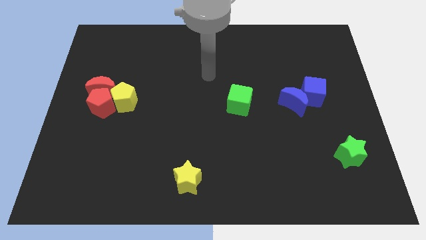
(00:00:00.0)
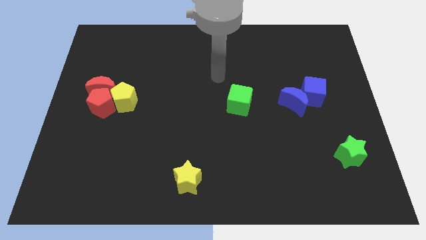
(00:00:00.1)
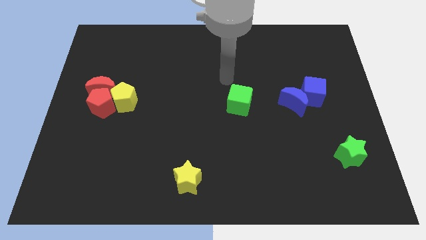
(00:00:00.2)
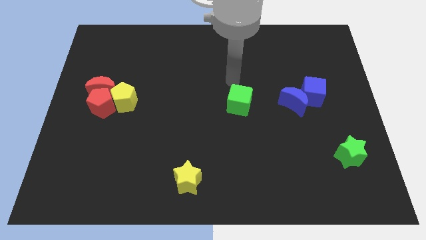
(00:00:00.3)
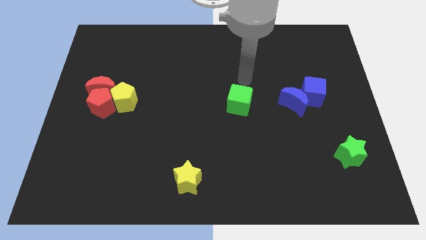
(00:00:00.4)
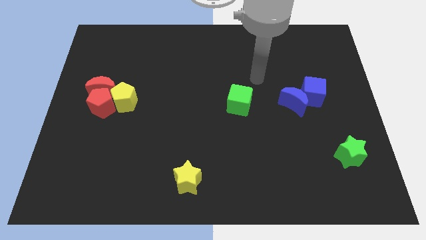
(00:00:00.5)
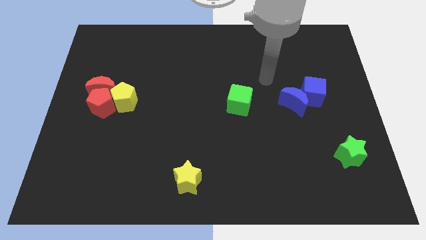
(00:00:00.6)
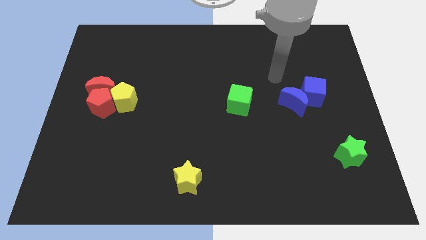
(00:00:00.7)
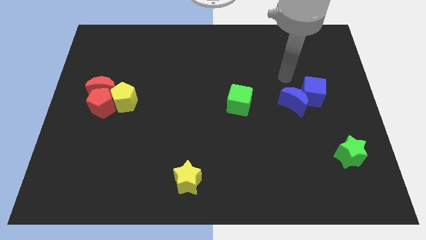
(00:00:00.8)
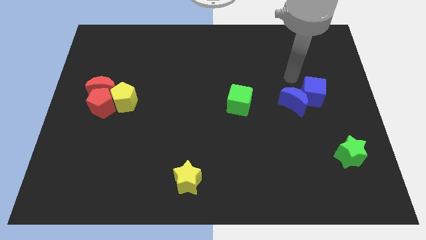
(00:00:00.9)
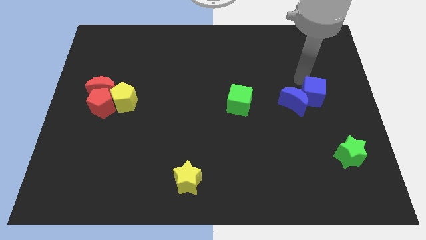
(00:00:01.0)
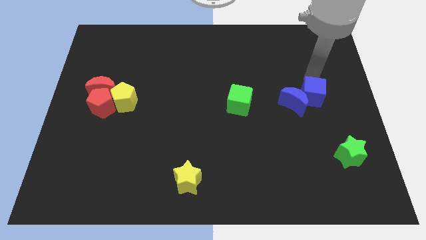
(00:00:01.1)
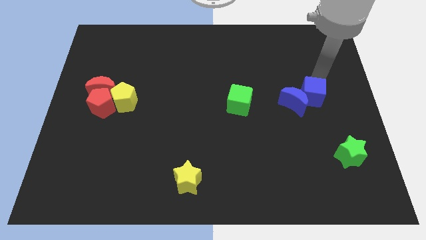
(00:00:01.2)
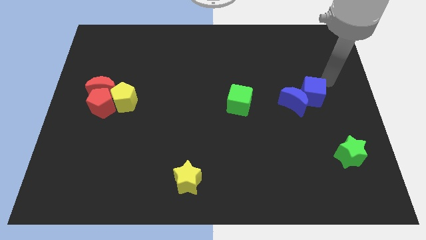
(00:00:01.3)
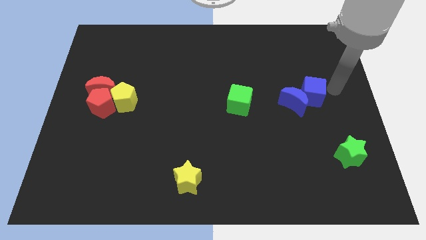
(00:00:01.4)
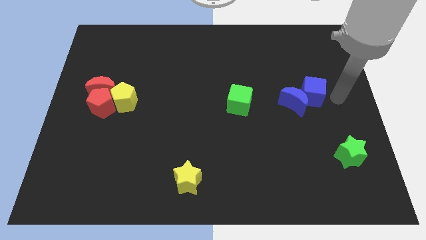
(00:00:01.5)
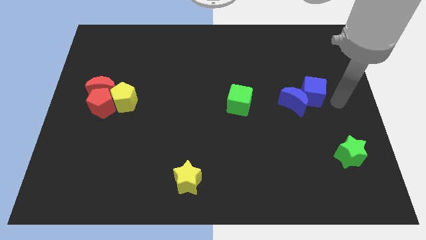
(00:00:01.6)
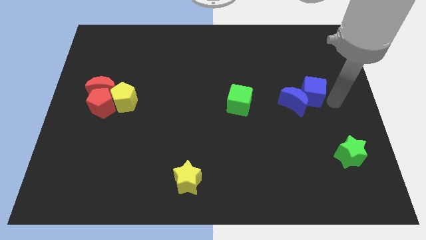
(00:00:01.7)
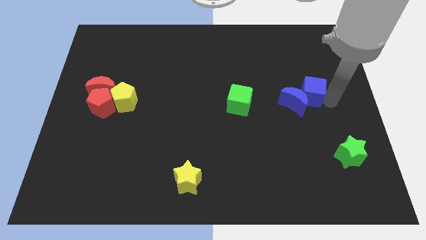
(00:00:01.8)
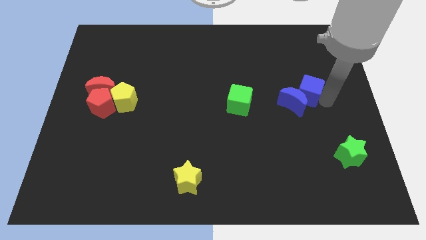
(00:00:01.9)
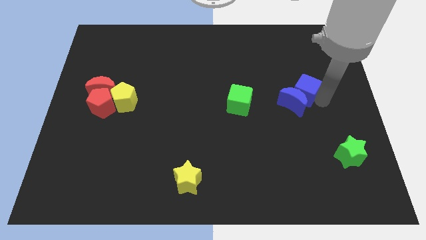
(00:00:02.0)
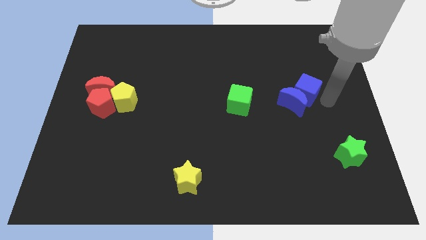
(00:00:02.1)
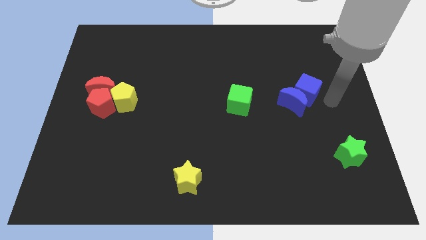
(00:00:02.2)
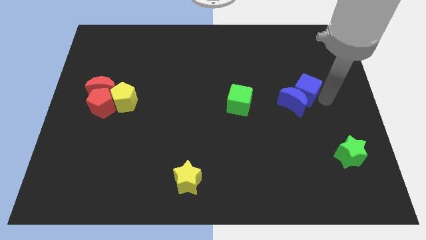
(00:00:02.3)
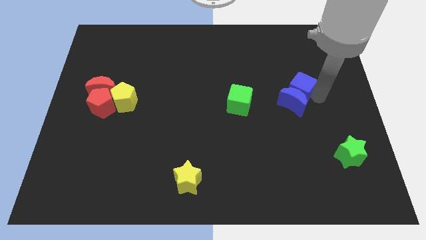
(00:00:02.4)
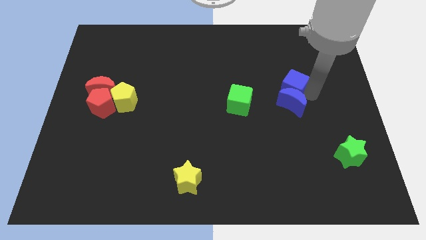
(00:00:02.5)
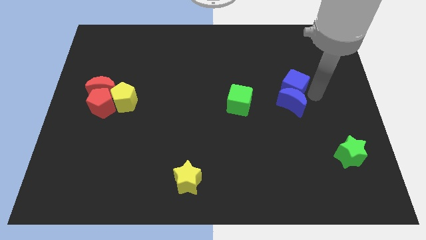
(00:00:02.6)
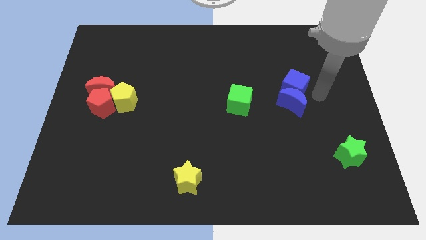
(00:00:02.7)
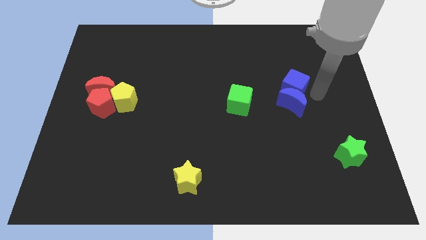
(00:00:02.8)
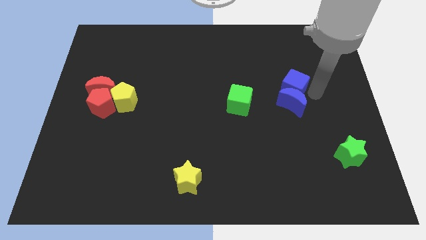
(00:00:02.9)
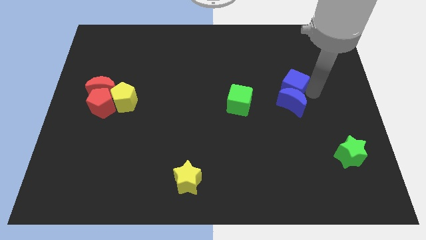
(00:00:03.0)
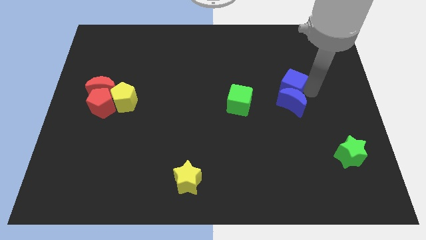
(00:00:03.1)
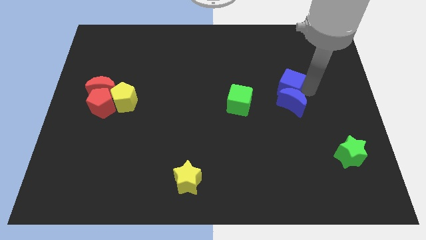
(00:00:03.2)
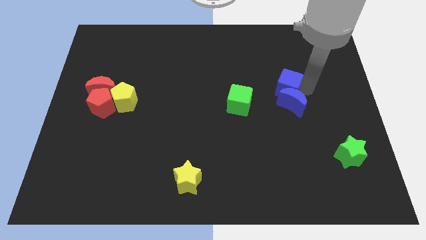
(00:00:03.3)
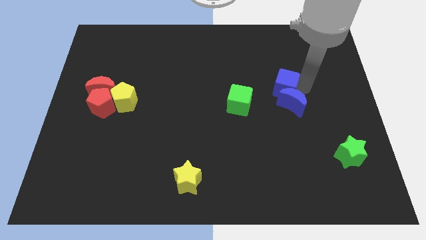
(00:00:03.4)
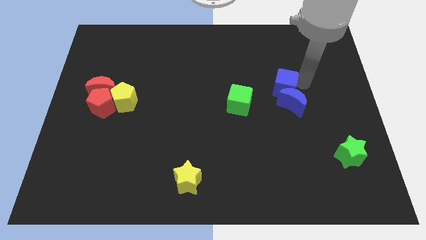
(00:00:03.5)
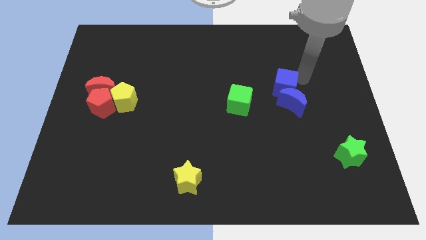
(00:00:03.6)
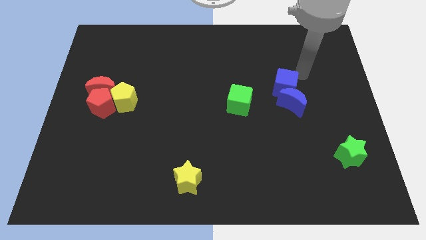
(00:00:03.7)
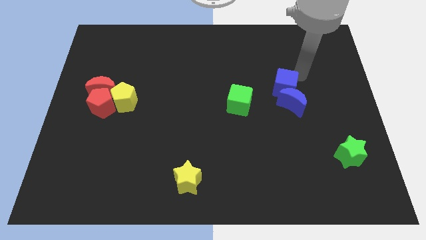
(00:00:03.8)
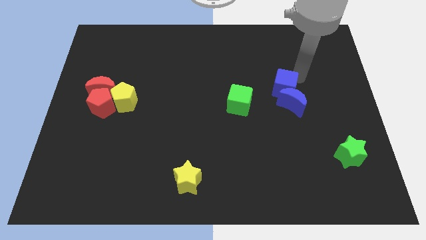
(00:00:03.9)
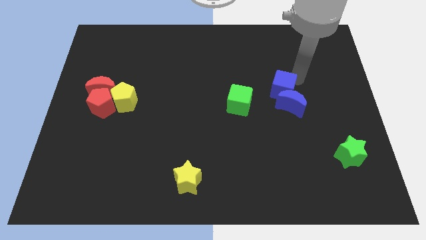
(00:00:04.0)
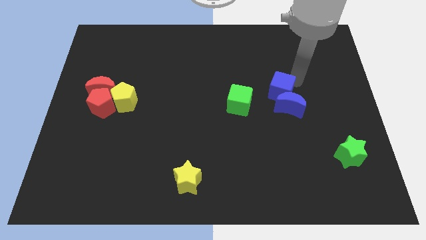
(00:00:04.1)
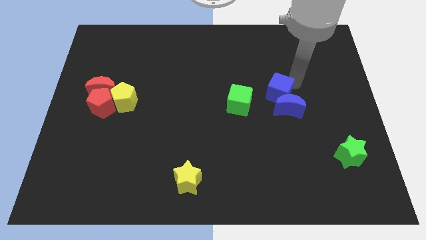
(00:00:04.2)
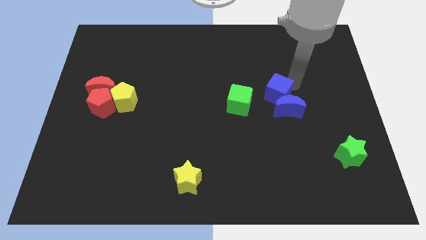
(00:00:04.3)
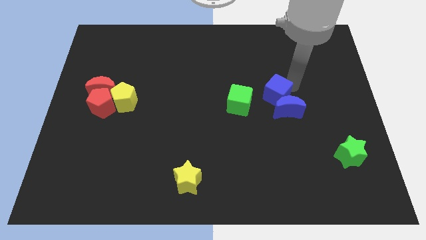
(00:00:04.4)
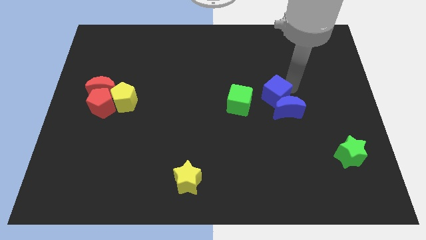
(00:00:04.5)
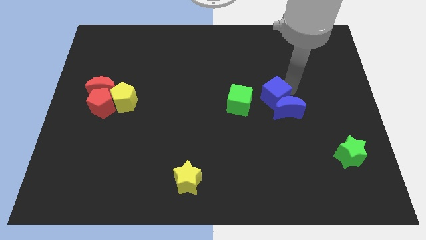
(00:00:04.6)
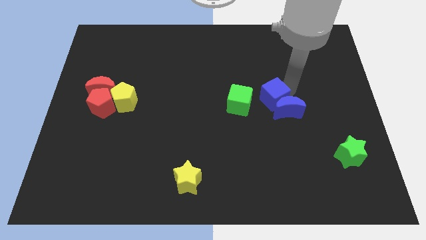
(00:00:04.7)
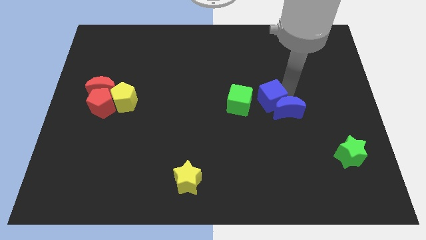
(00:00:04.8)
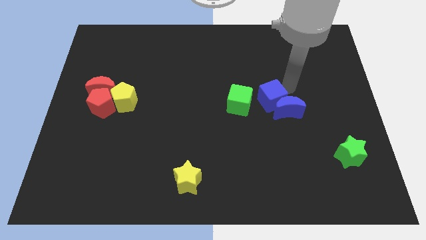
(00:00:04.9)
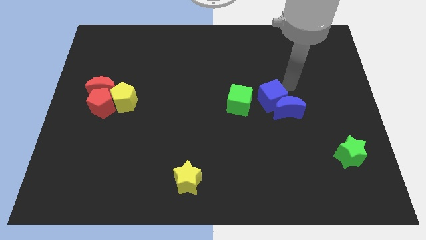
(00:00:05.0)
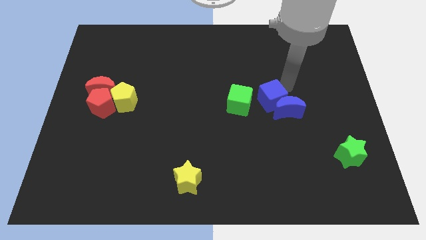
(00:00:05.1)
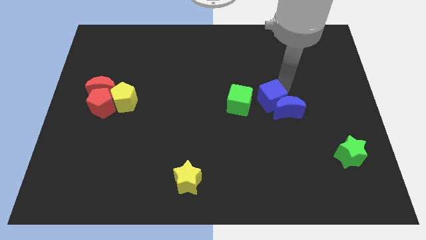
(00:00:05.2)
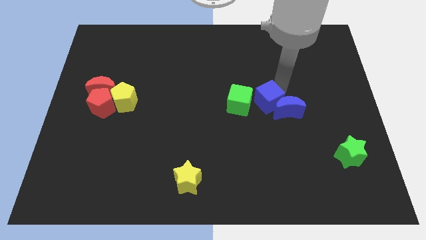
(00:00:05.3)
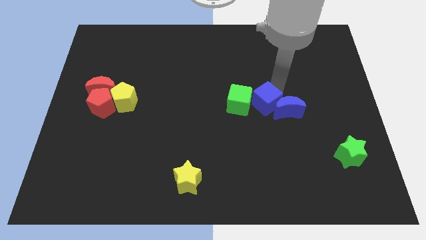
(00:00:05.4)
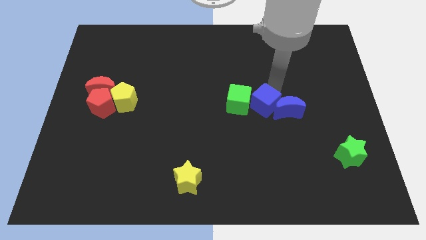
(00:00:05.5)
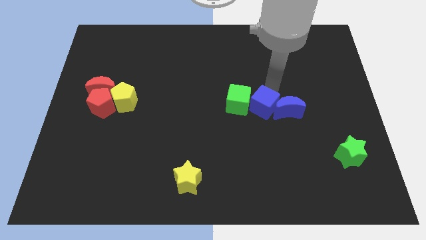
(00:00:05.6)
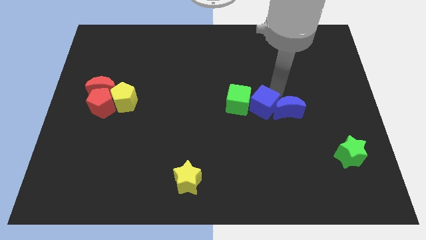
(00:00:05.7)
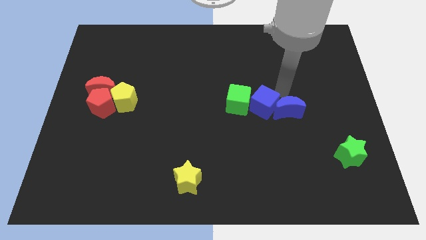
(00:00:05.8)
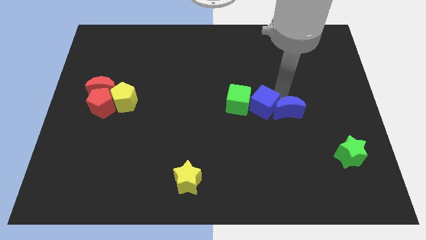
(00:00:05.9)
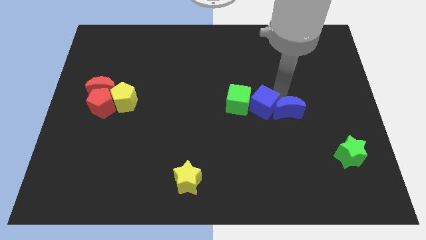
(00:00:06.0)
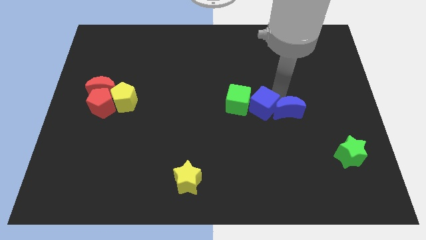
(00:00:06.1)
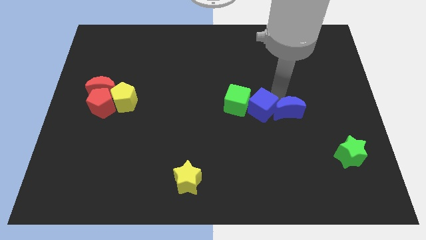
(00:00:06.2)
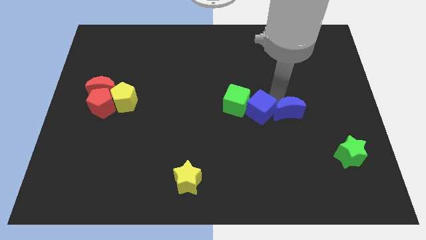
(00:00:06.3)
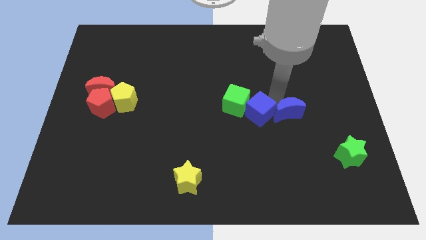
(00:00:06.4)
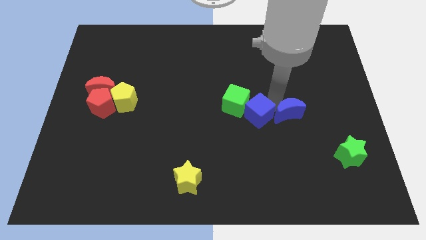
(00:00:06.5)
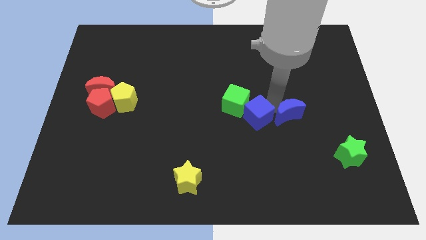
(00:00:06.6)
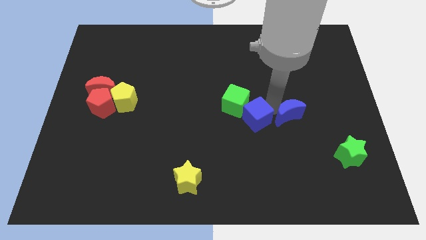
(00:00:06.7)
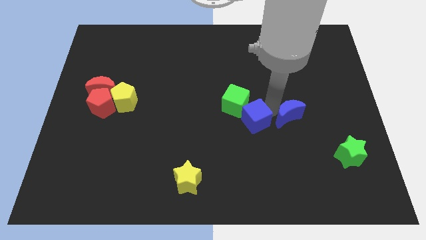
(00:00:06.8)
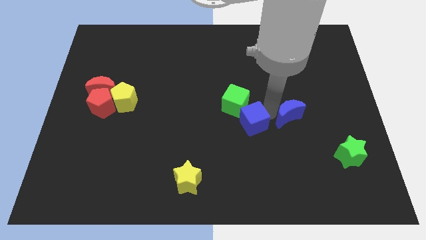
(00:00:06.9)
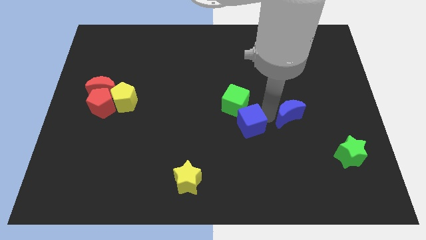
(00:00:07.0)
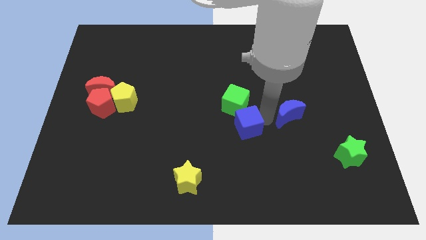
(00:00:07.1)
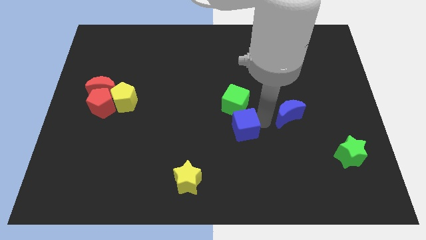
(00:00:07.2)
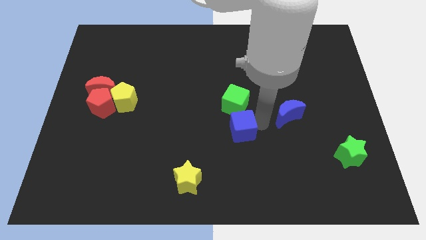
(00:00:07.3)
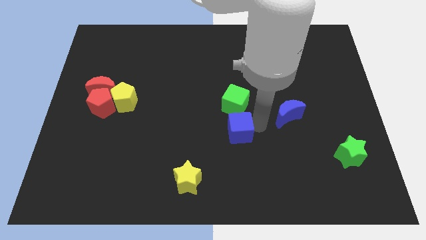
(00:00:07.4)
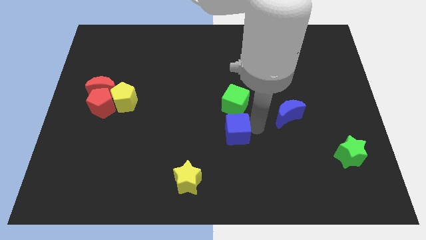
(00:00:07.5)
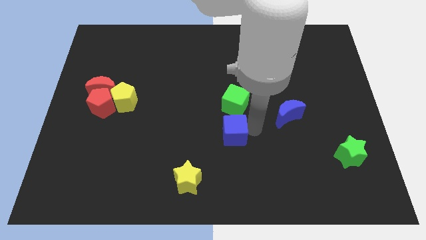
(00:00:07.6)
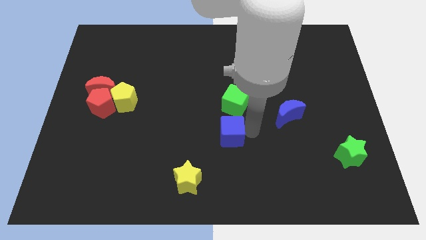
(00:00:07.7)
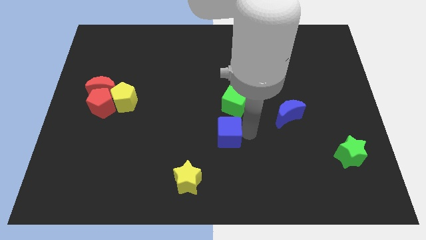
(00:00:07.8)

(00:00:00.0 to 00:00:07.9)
move the blue cube to the bottom left side of the green cube
